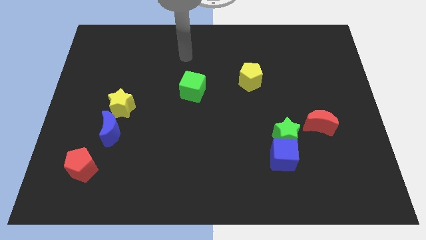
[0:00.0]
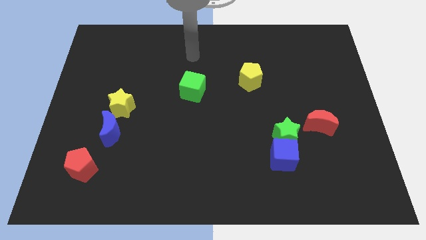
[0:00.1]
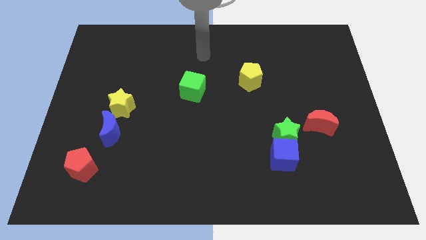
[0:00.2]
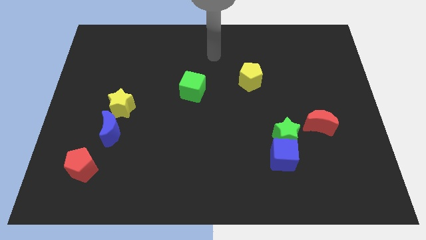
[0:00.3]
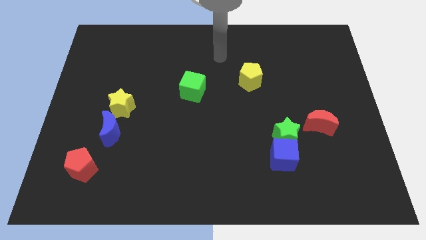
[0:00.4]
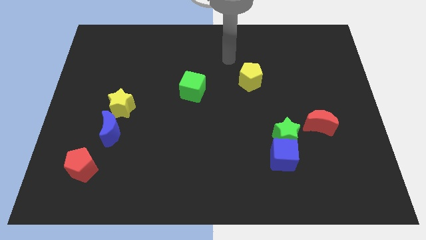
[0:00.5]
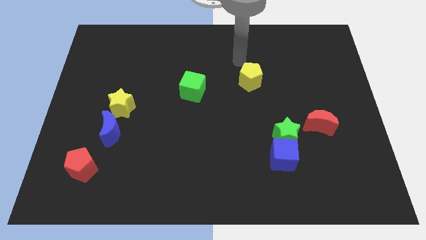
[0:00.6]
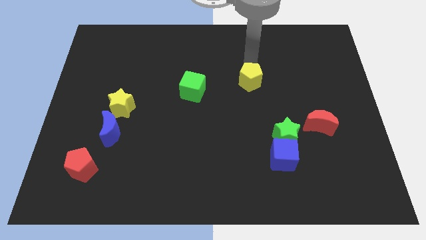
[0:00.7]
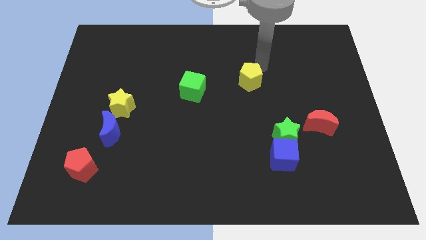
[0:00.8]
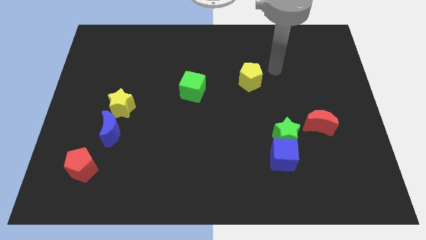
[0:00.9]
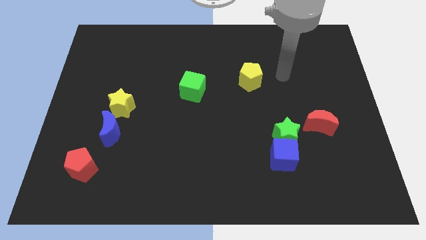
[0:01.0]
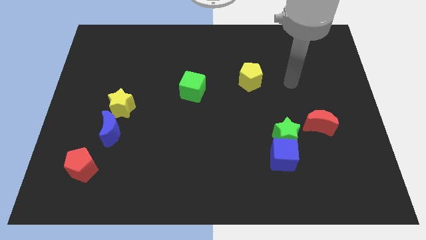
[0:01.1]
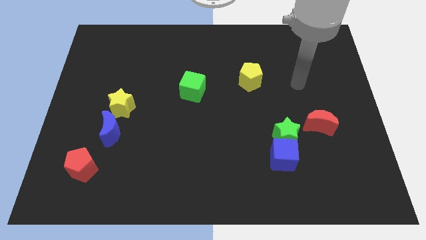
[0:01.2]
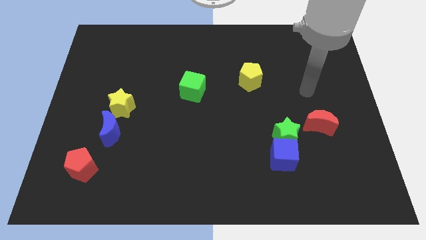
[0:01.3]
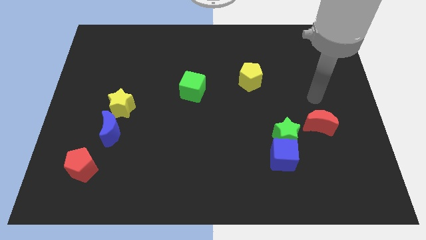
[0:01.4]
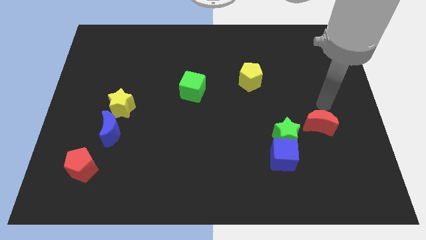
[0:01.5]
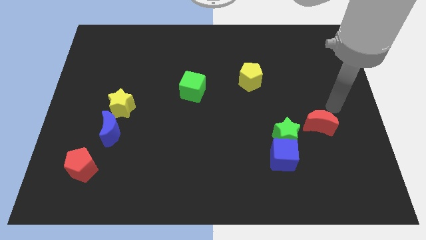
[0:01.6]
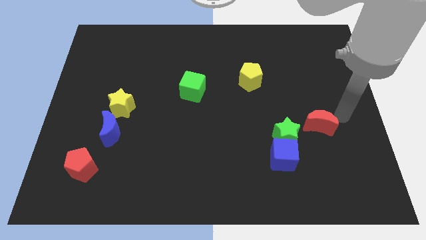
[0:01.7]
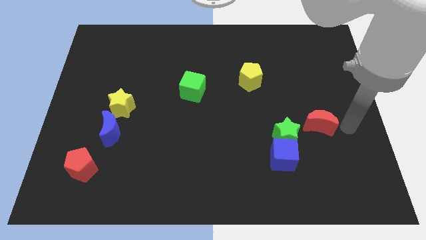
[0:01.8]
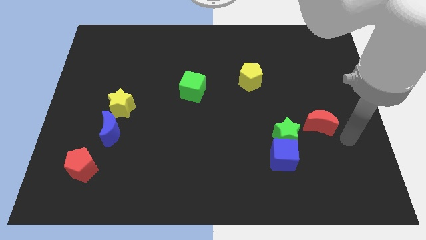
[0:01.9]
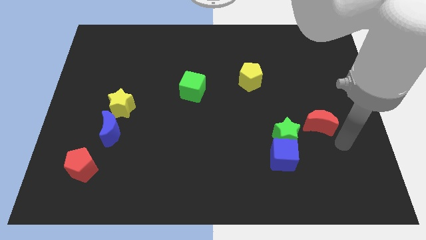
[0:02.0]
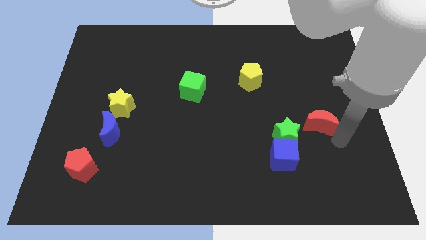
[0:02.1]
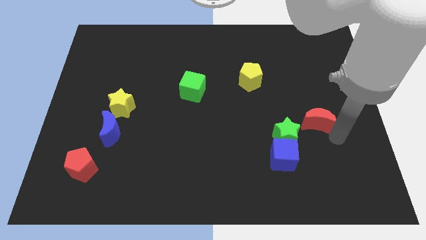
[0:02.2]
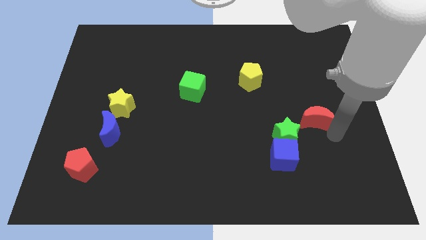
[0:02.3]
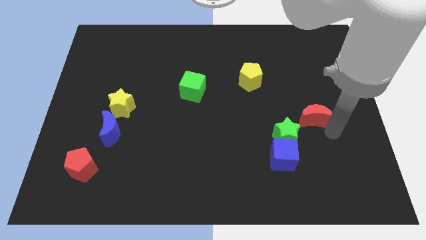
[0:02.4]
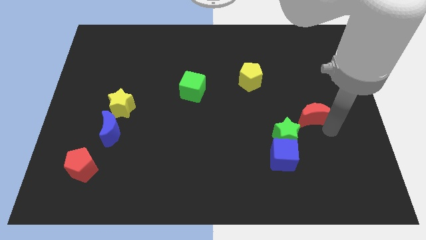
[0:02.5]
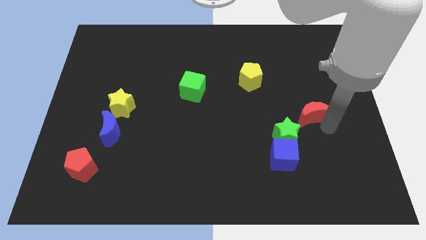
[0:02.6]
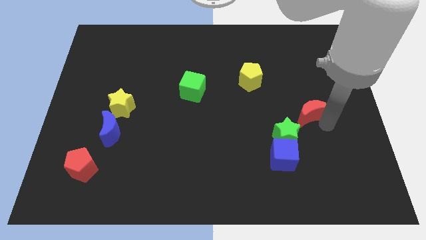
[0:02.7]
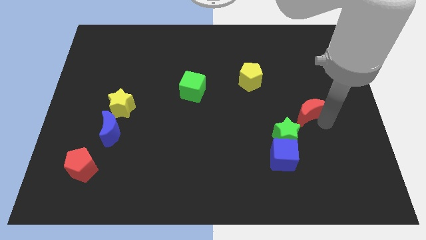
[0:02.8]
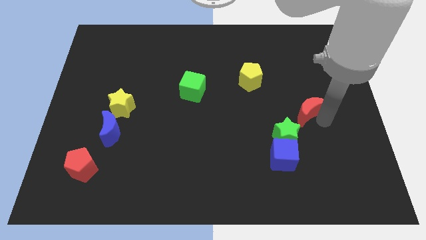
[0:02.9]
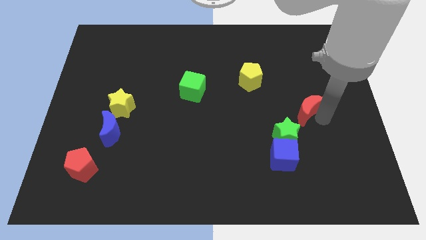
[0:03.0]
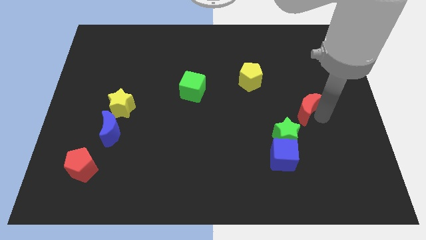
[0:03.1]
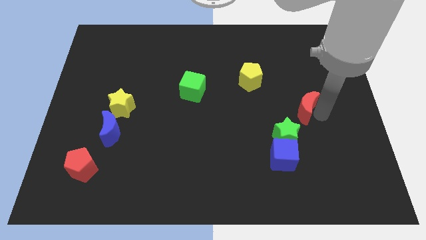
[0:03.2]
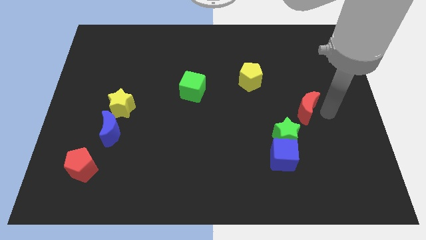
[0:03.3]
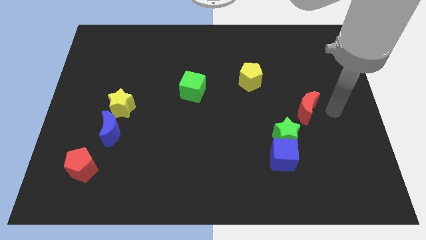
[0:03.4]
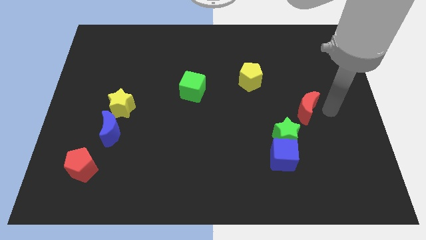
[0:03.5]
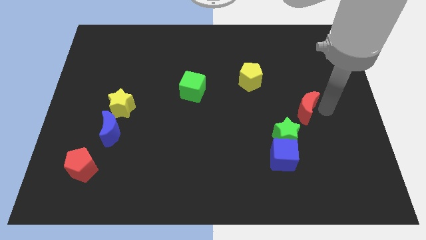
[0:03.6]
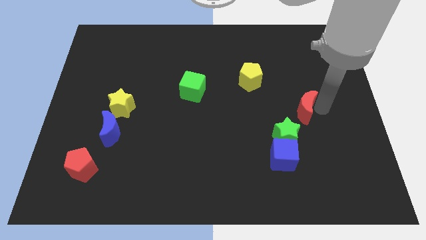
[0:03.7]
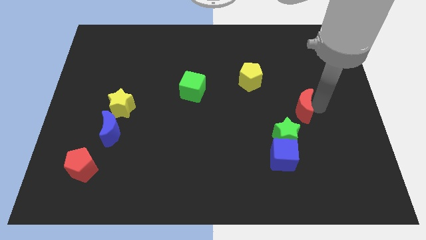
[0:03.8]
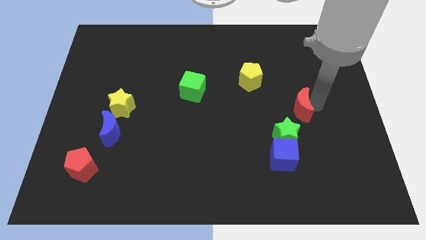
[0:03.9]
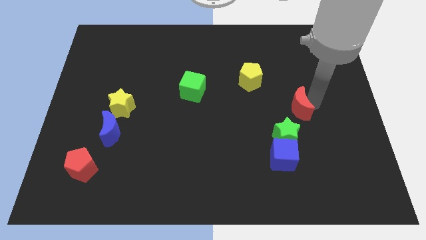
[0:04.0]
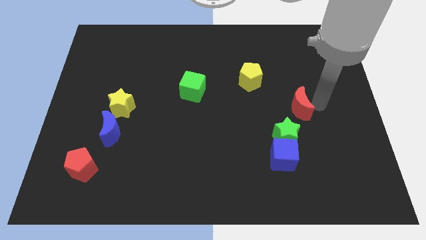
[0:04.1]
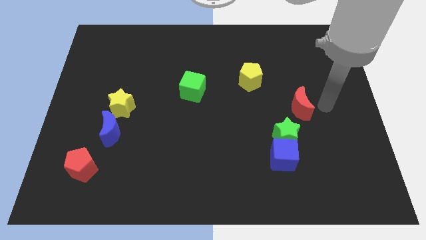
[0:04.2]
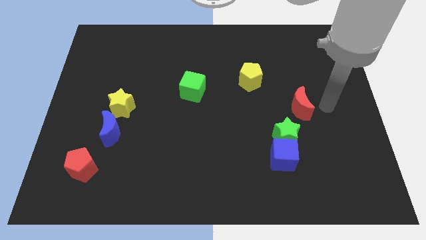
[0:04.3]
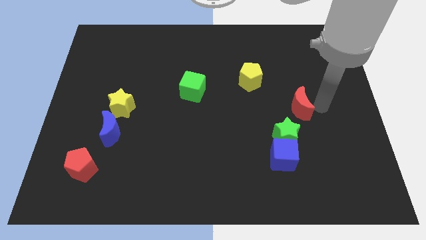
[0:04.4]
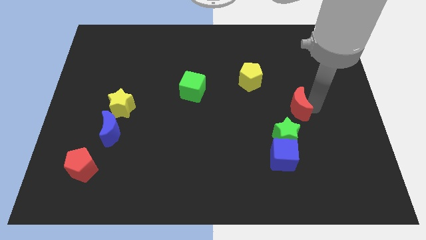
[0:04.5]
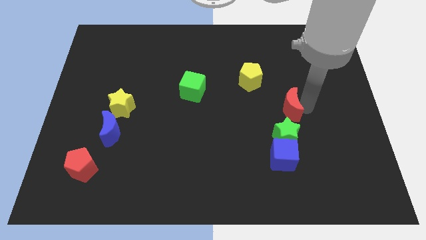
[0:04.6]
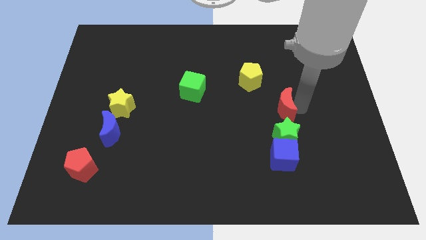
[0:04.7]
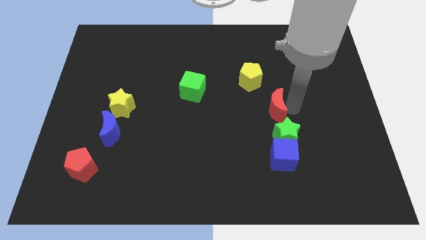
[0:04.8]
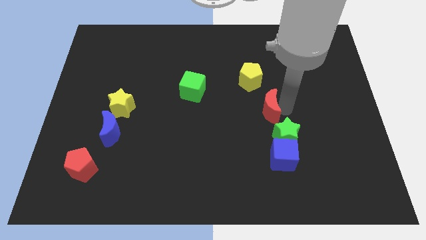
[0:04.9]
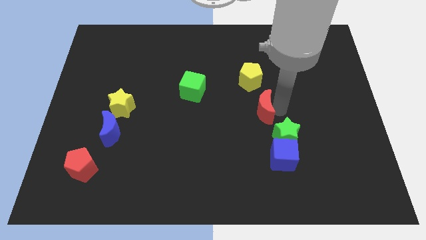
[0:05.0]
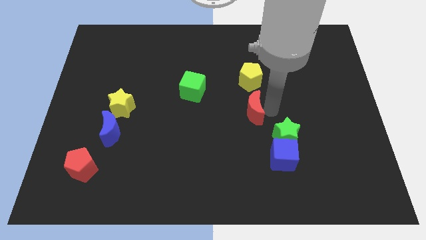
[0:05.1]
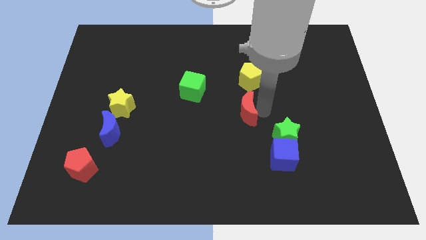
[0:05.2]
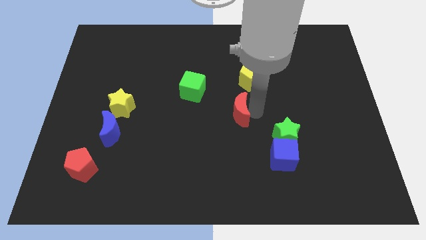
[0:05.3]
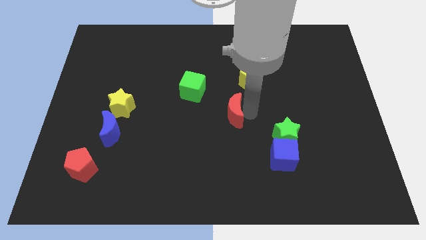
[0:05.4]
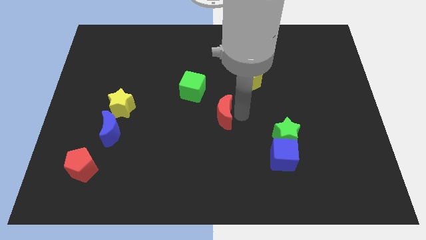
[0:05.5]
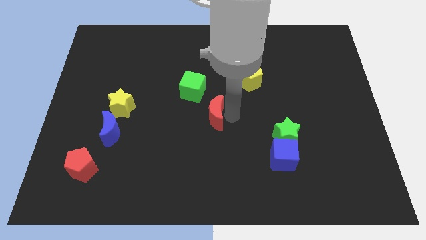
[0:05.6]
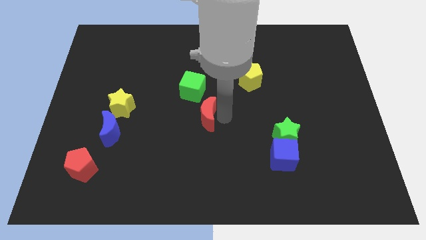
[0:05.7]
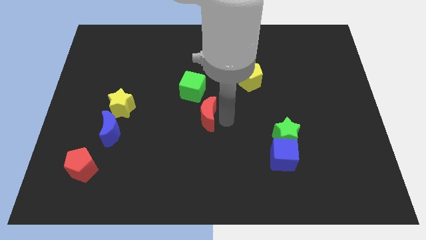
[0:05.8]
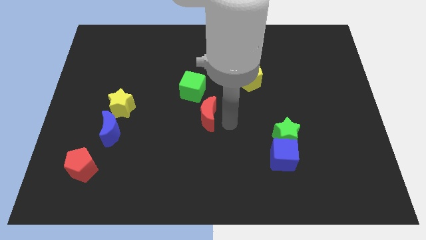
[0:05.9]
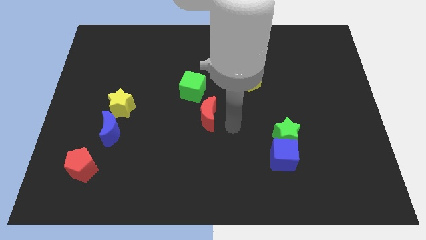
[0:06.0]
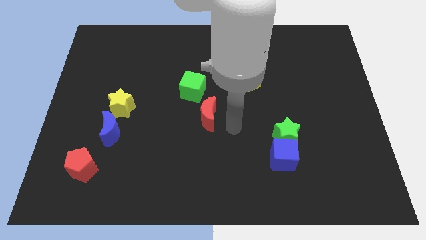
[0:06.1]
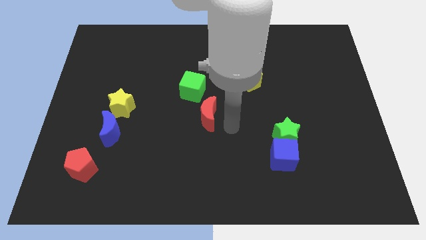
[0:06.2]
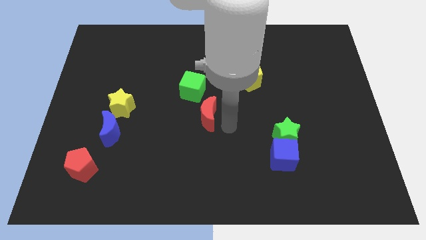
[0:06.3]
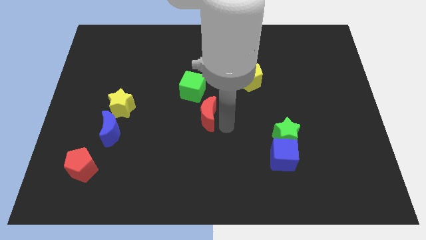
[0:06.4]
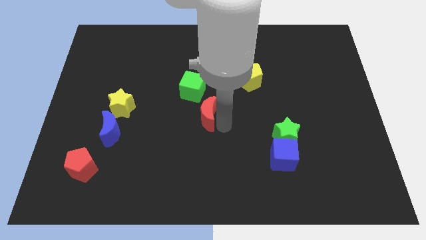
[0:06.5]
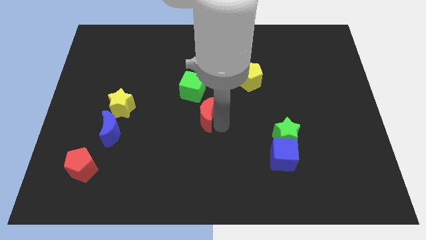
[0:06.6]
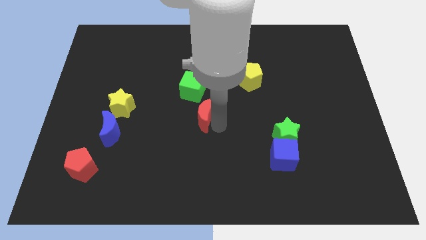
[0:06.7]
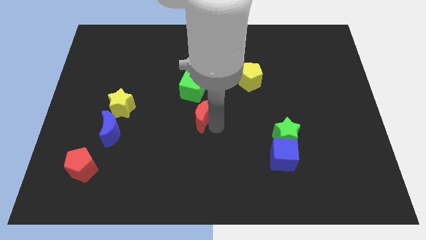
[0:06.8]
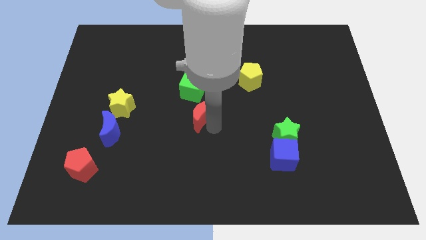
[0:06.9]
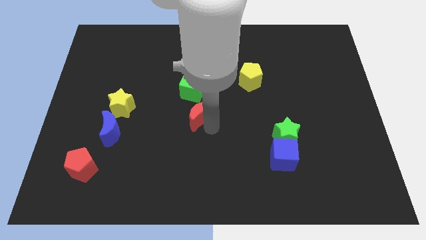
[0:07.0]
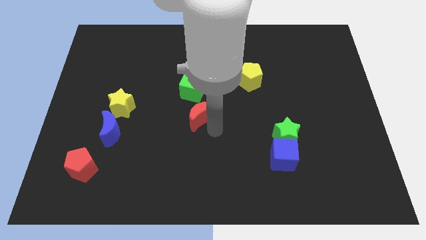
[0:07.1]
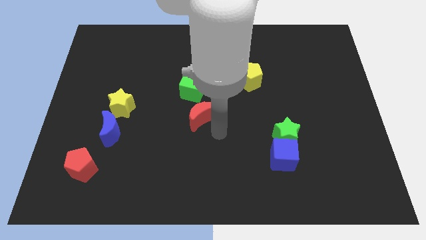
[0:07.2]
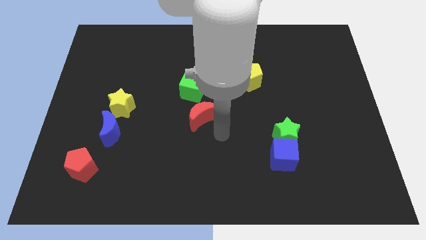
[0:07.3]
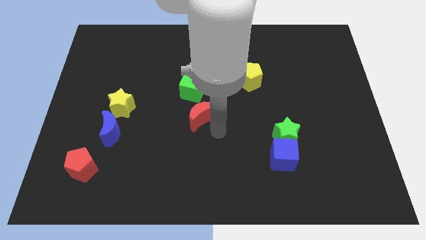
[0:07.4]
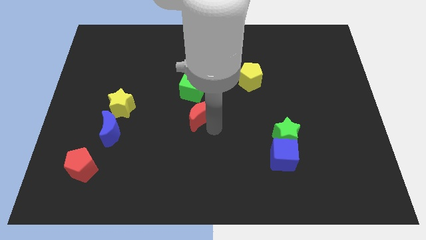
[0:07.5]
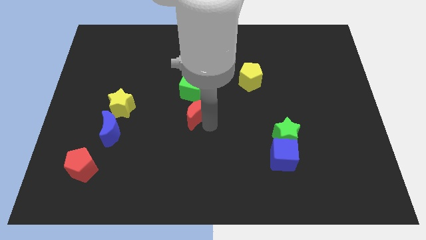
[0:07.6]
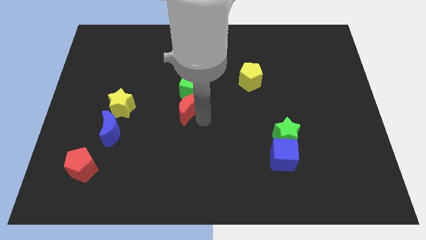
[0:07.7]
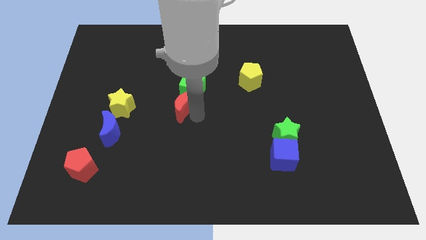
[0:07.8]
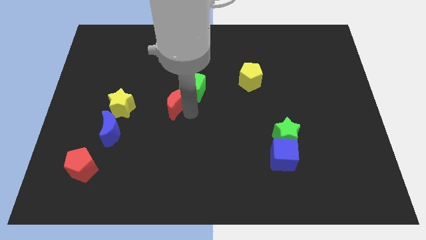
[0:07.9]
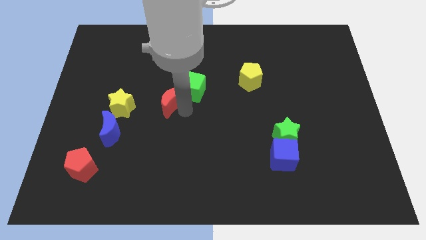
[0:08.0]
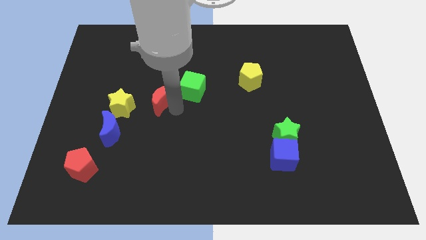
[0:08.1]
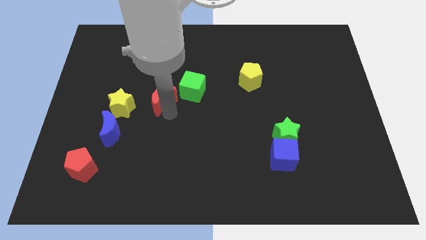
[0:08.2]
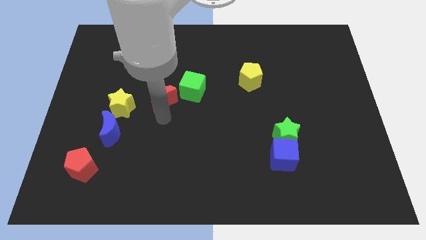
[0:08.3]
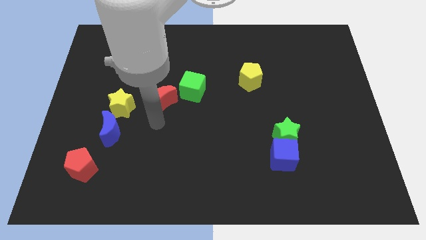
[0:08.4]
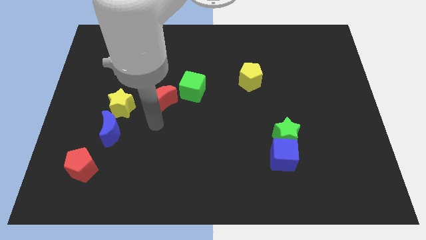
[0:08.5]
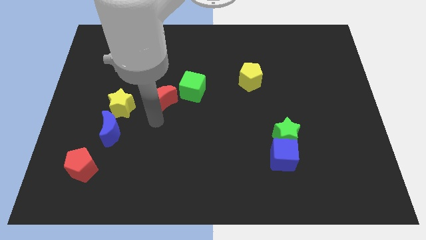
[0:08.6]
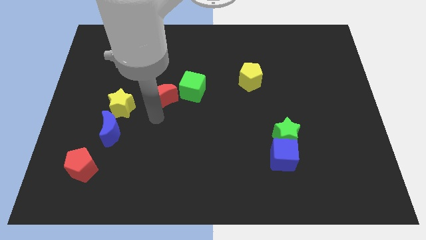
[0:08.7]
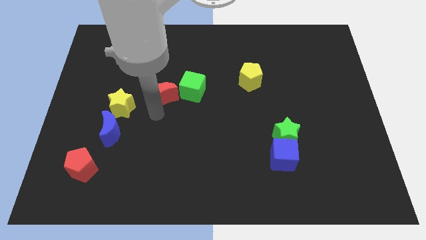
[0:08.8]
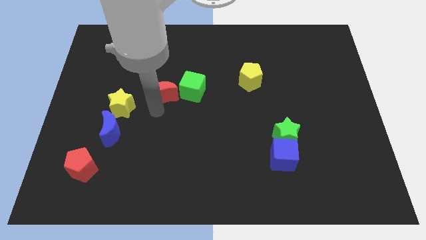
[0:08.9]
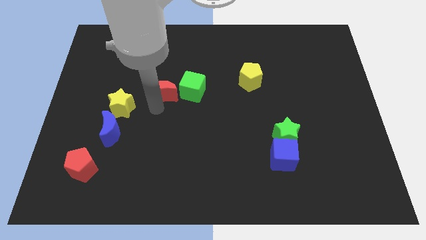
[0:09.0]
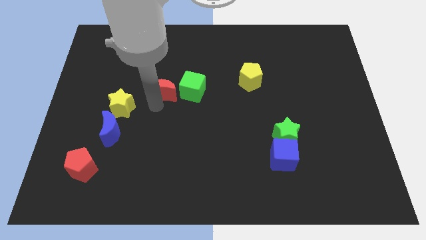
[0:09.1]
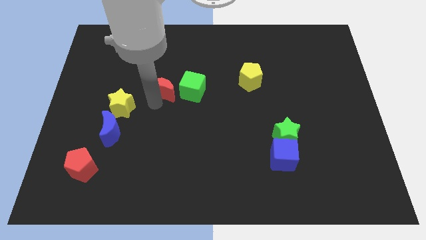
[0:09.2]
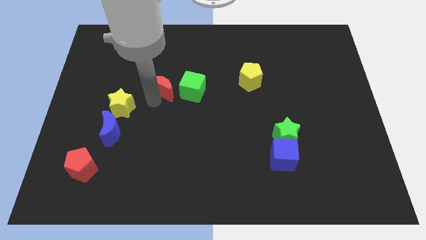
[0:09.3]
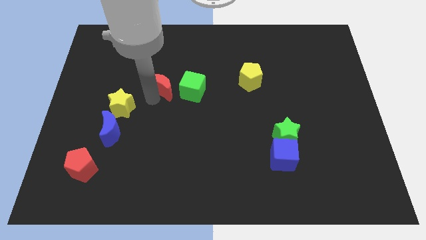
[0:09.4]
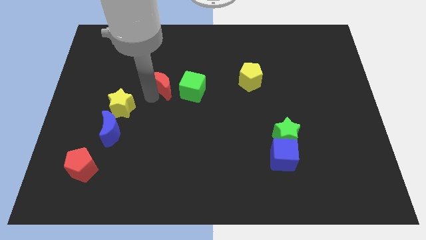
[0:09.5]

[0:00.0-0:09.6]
move the red moon to the top left side of the green cube
